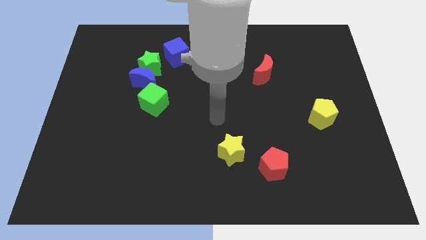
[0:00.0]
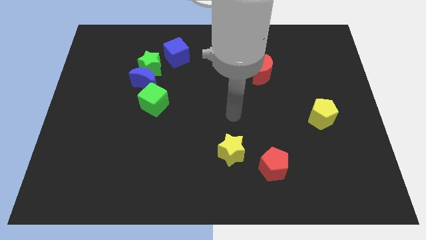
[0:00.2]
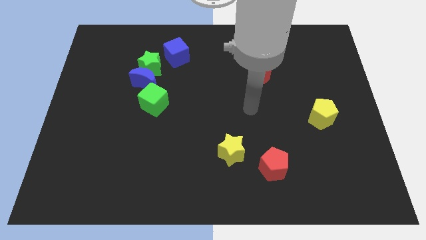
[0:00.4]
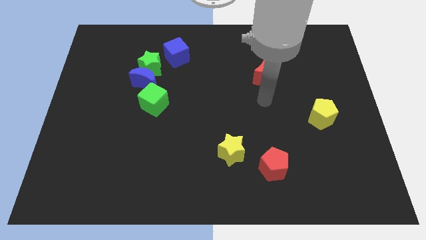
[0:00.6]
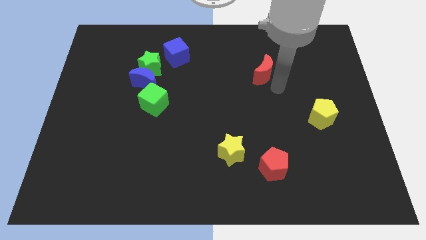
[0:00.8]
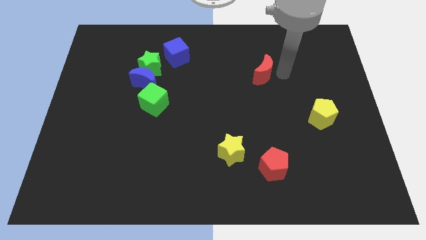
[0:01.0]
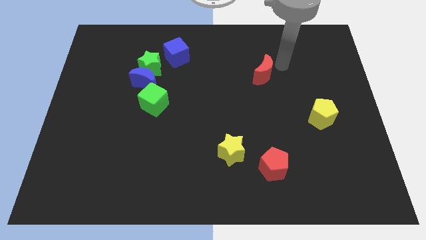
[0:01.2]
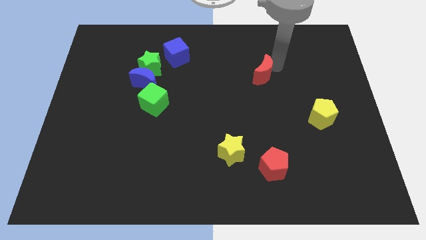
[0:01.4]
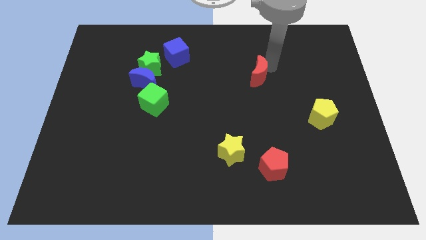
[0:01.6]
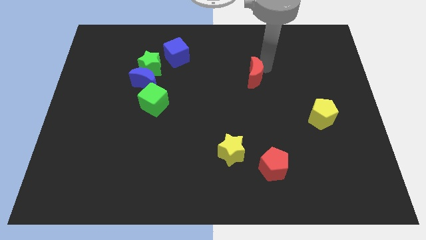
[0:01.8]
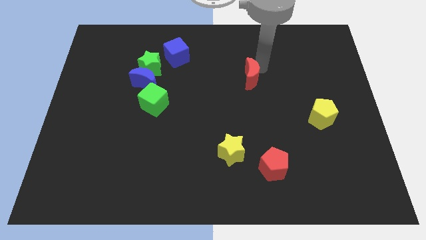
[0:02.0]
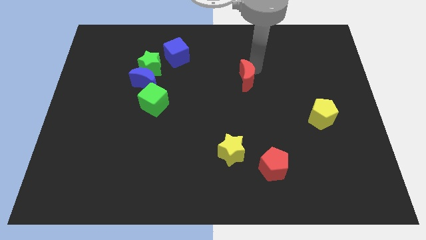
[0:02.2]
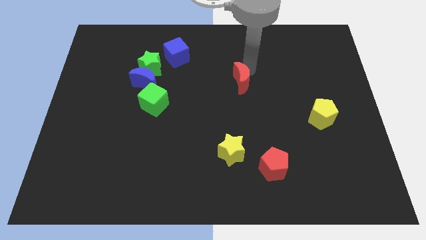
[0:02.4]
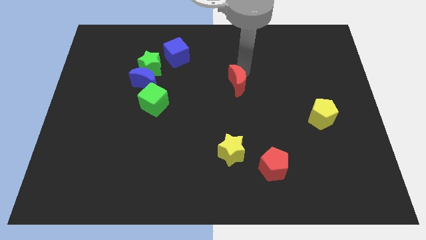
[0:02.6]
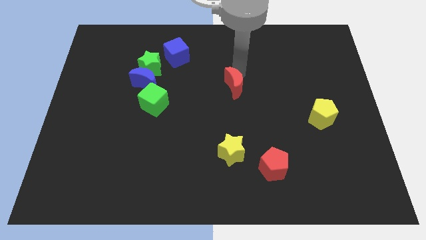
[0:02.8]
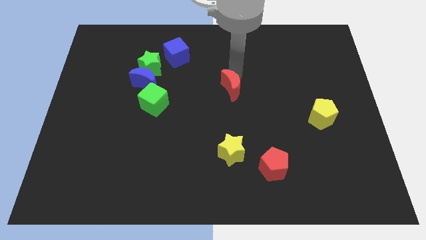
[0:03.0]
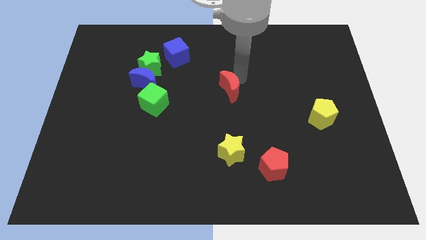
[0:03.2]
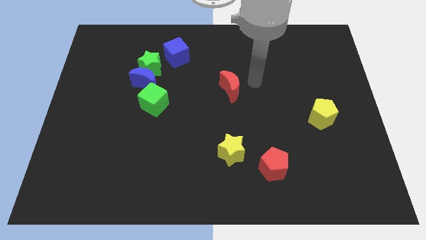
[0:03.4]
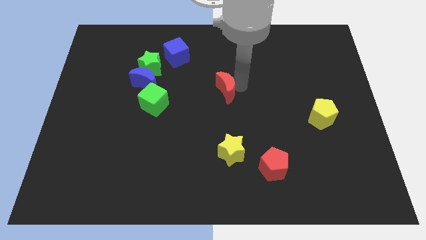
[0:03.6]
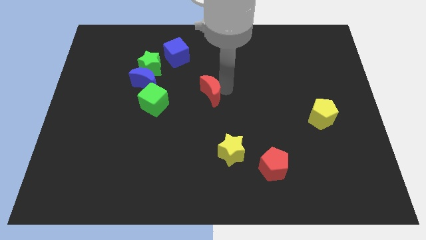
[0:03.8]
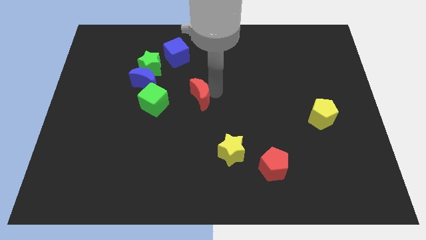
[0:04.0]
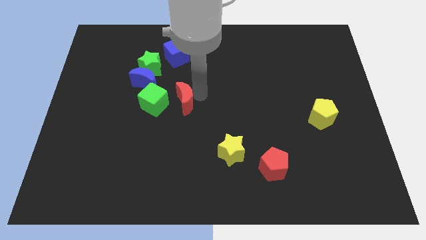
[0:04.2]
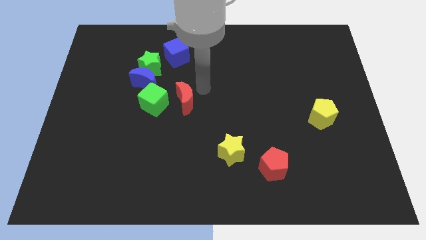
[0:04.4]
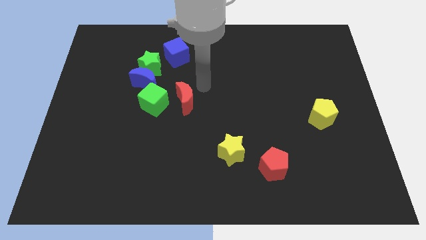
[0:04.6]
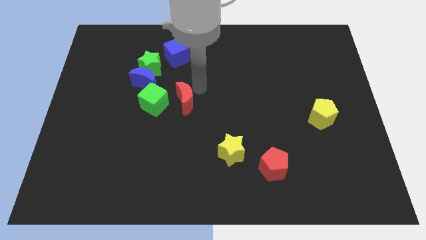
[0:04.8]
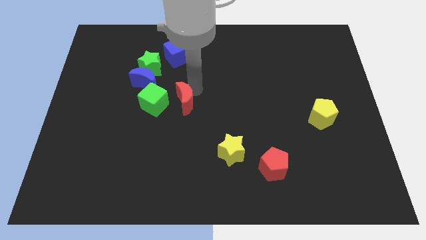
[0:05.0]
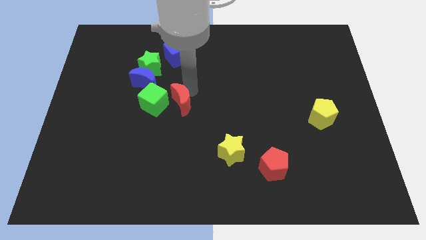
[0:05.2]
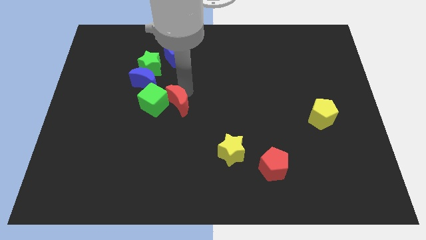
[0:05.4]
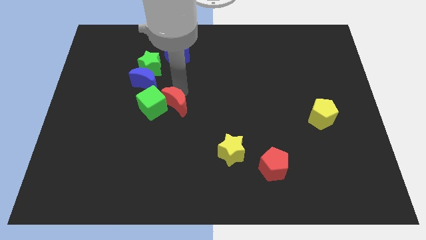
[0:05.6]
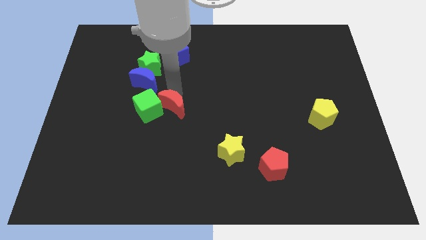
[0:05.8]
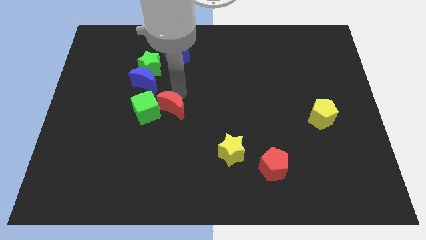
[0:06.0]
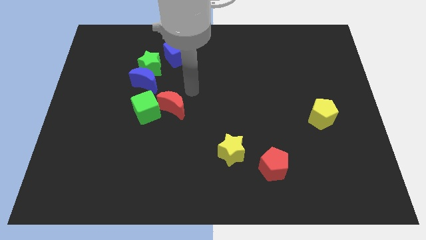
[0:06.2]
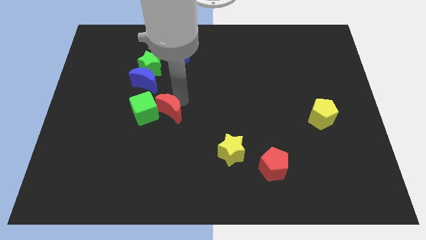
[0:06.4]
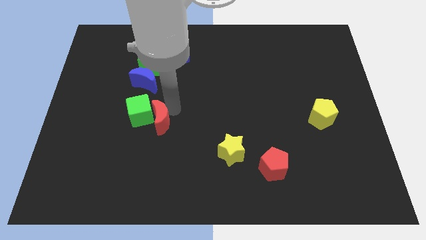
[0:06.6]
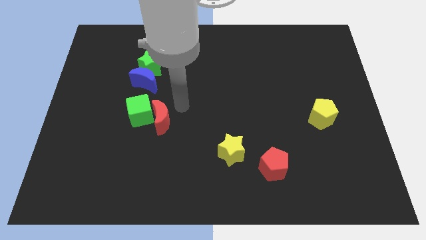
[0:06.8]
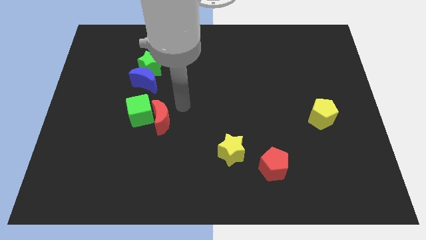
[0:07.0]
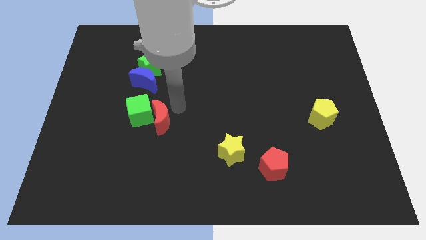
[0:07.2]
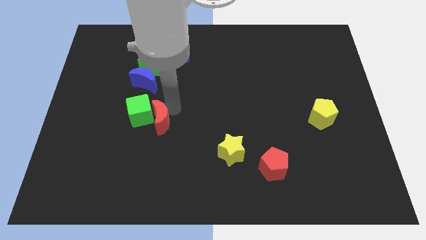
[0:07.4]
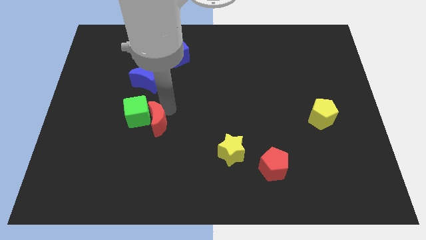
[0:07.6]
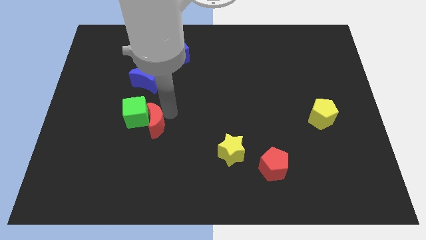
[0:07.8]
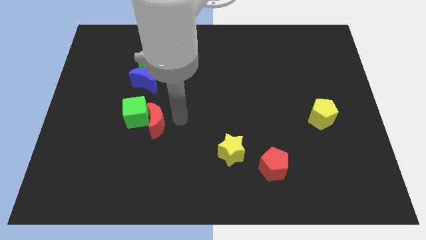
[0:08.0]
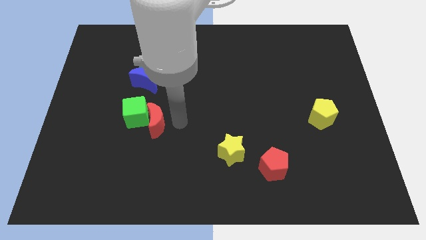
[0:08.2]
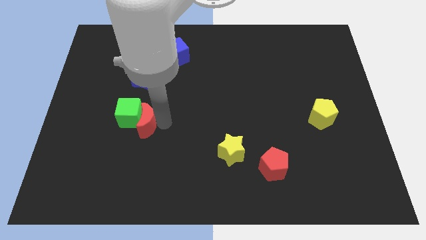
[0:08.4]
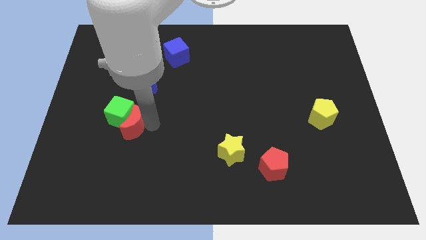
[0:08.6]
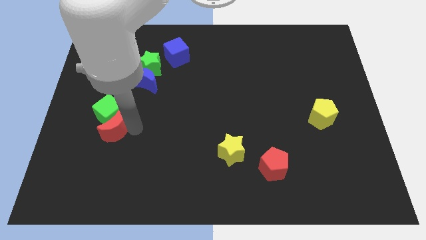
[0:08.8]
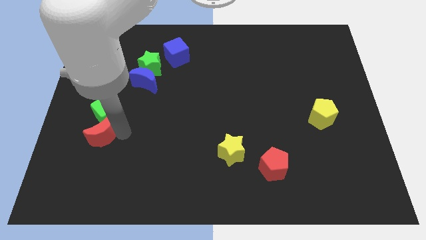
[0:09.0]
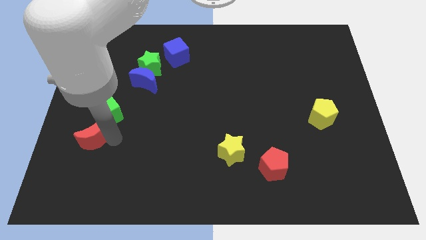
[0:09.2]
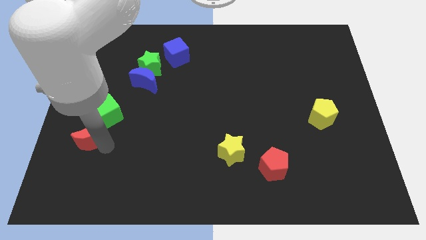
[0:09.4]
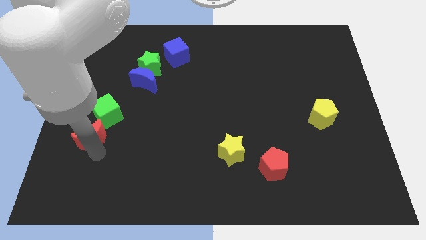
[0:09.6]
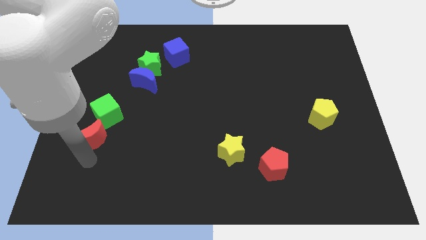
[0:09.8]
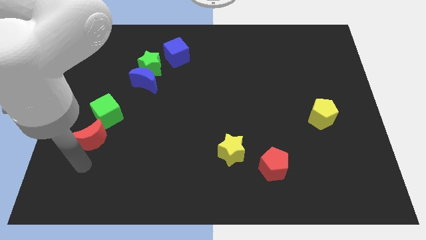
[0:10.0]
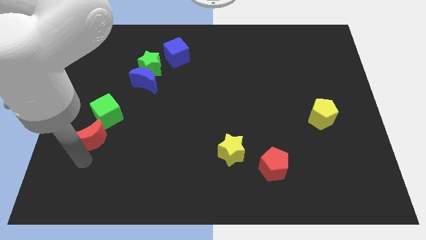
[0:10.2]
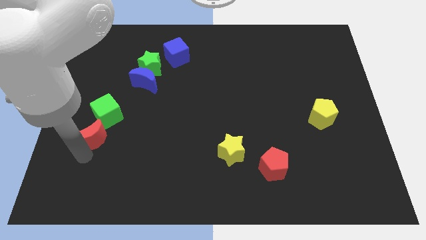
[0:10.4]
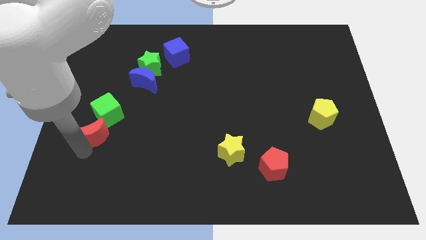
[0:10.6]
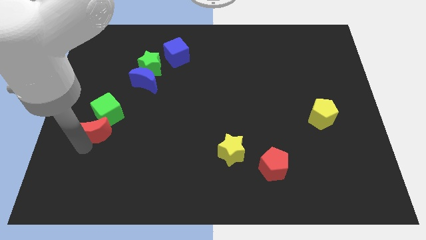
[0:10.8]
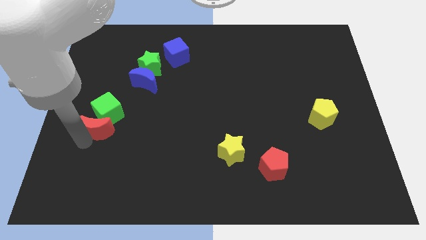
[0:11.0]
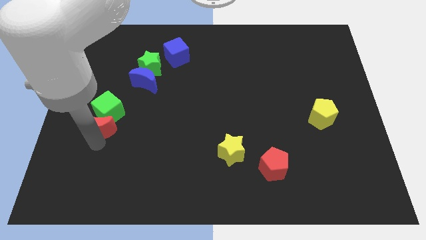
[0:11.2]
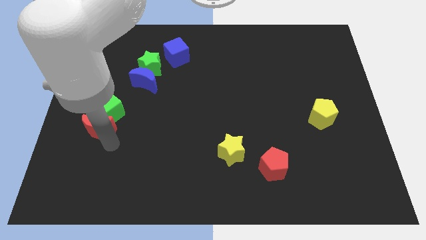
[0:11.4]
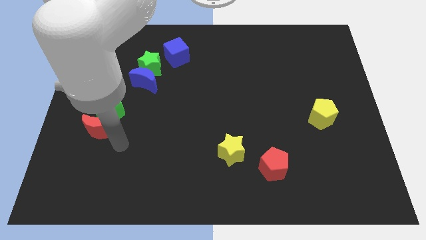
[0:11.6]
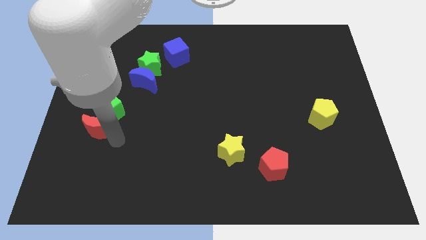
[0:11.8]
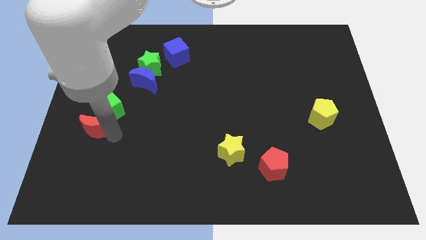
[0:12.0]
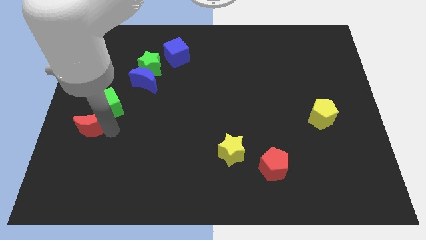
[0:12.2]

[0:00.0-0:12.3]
move the red moon to the left side

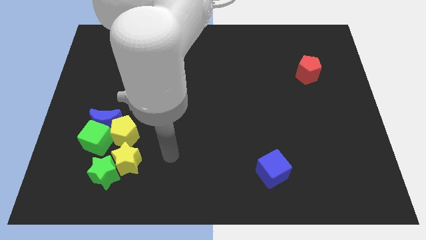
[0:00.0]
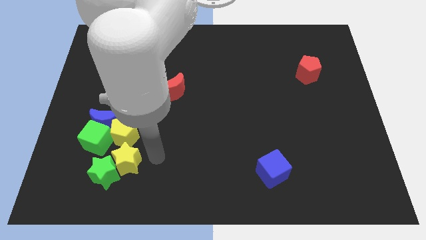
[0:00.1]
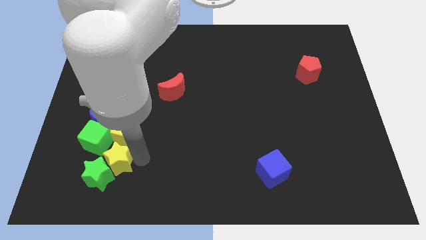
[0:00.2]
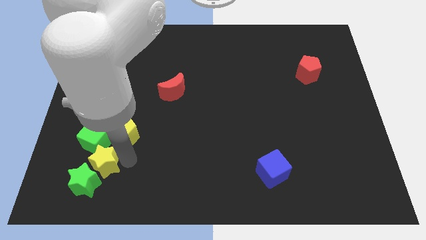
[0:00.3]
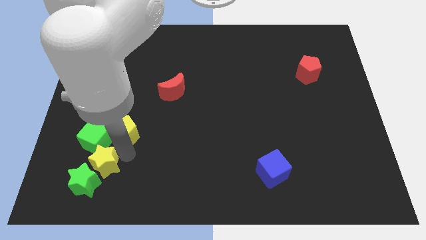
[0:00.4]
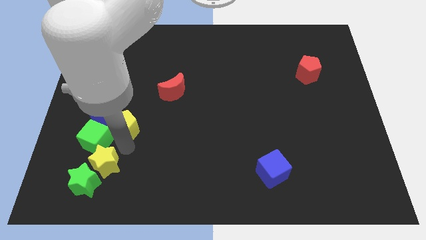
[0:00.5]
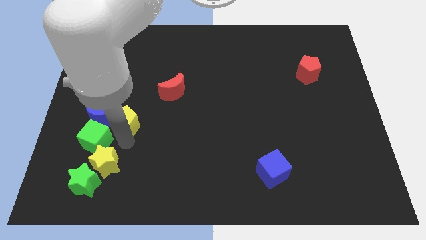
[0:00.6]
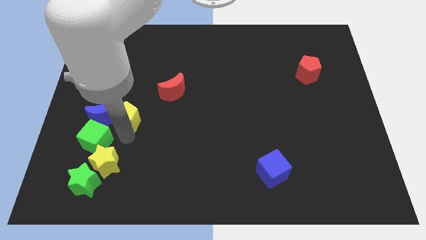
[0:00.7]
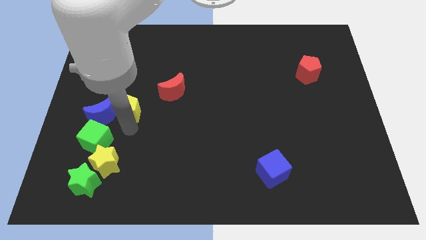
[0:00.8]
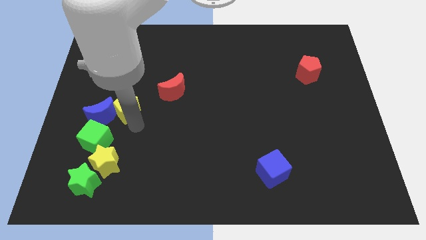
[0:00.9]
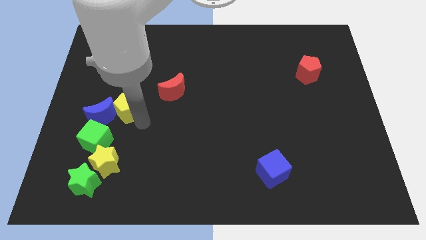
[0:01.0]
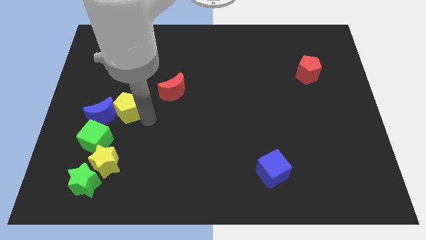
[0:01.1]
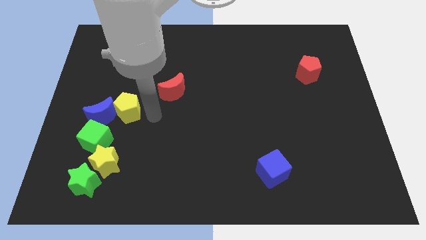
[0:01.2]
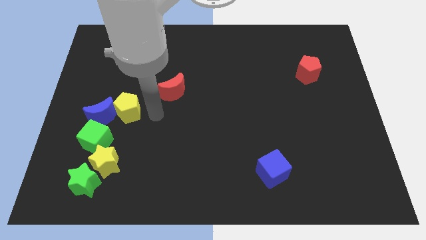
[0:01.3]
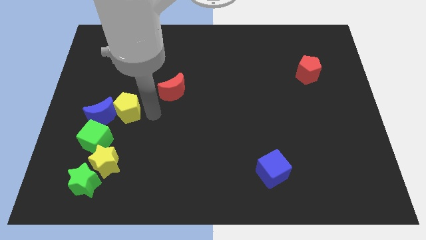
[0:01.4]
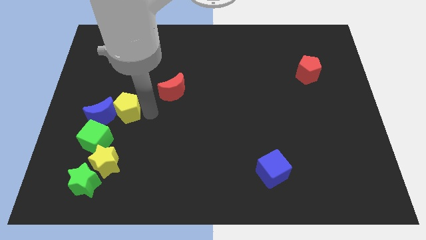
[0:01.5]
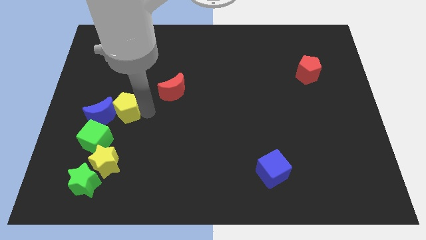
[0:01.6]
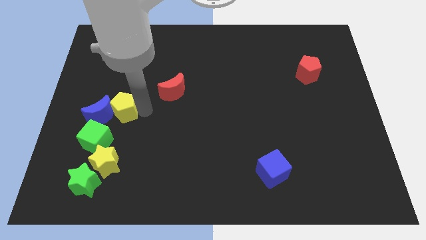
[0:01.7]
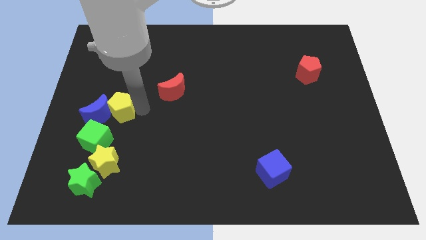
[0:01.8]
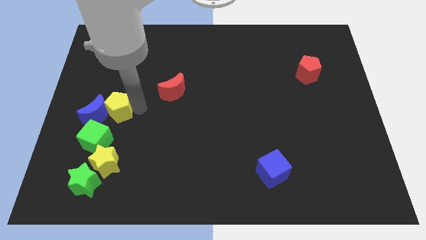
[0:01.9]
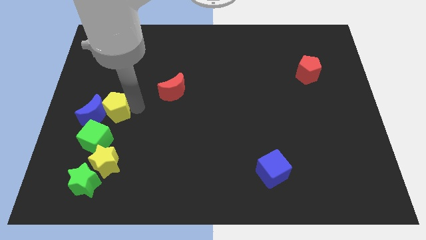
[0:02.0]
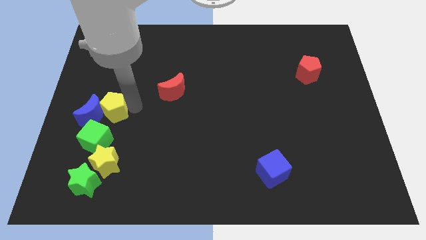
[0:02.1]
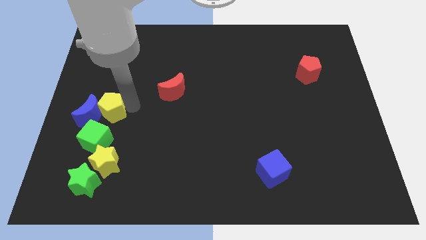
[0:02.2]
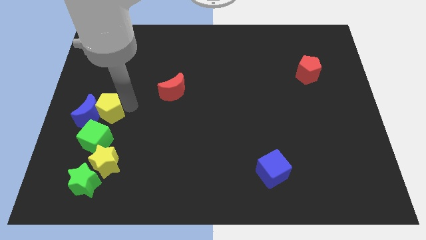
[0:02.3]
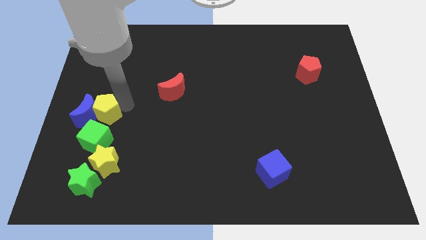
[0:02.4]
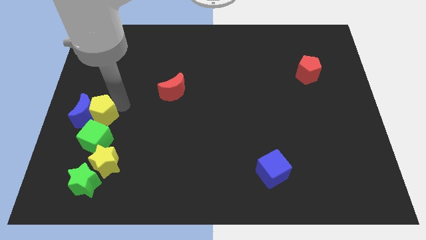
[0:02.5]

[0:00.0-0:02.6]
put the yellow pentagon to the center left

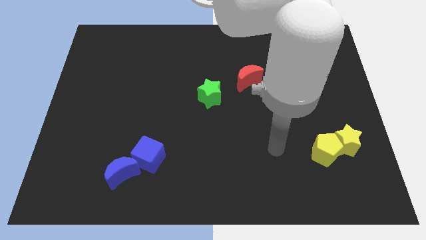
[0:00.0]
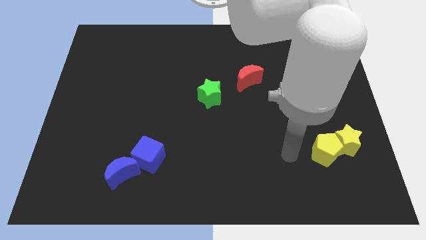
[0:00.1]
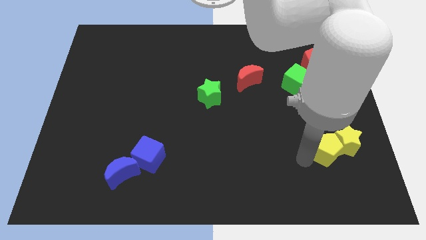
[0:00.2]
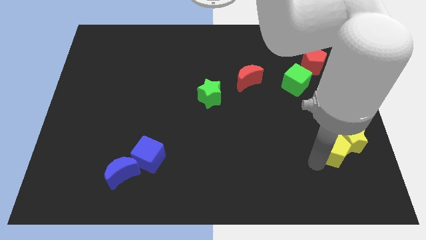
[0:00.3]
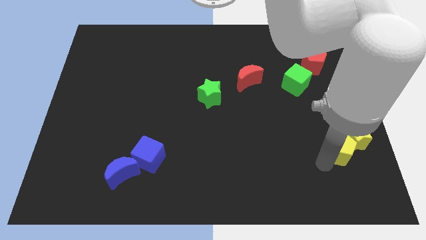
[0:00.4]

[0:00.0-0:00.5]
slide the yellow star to the right side
